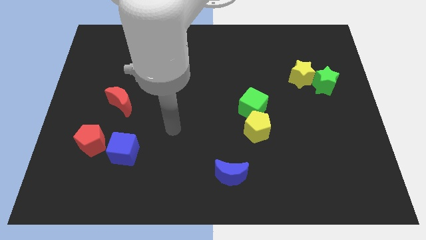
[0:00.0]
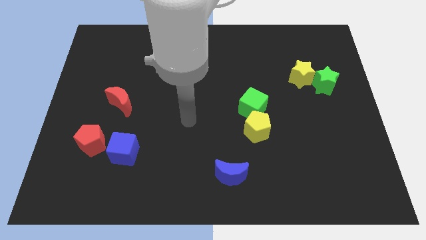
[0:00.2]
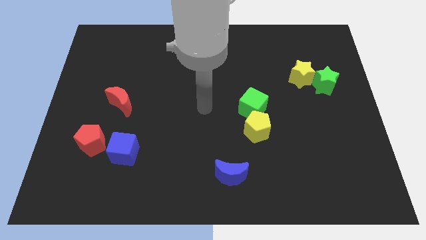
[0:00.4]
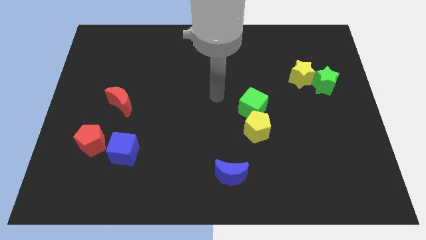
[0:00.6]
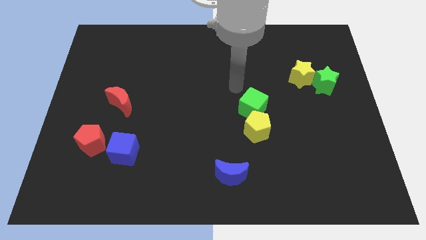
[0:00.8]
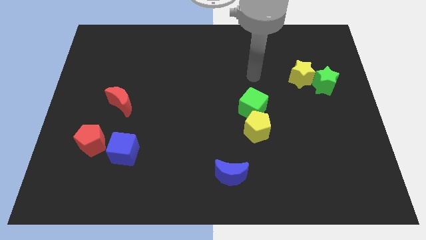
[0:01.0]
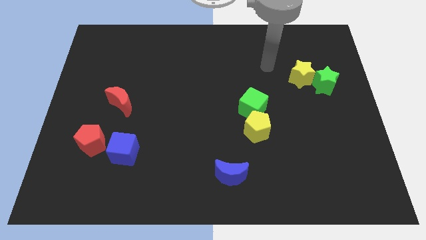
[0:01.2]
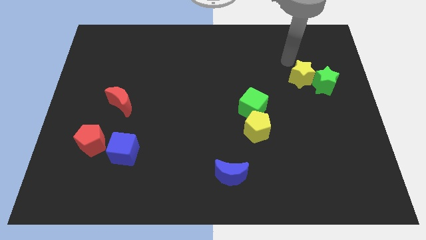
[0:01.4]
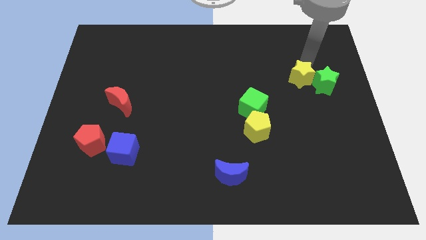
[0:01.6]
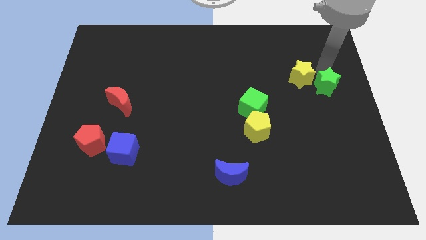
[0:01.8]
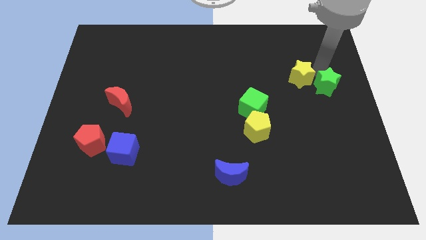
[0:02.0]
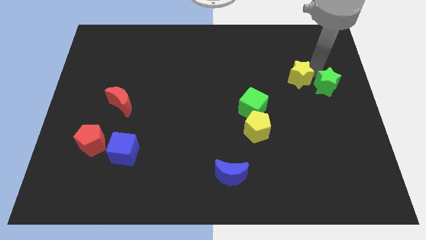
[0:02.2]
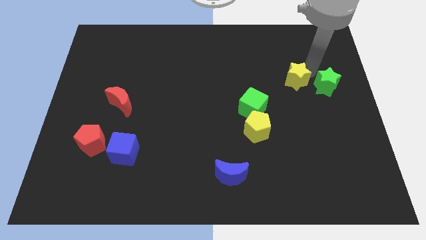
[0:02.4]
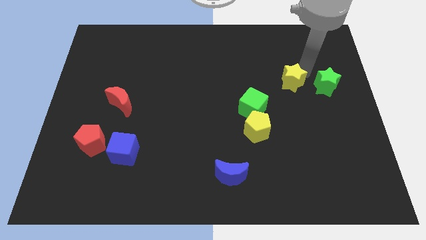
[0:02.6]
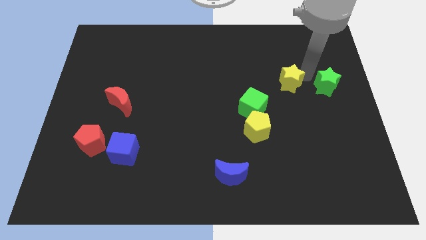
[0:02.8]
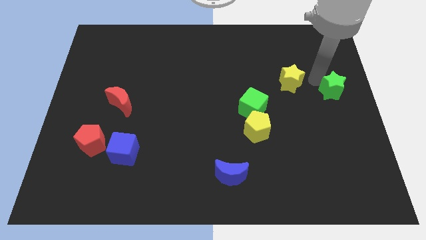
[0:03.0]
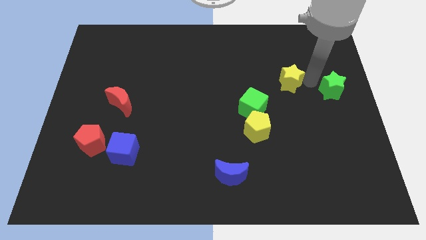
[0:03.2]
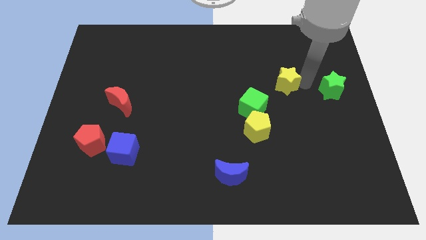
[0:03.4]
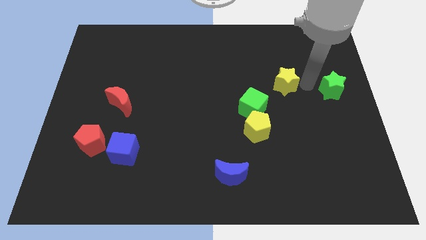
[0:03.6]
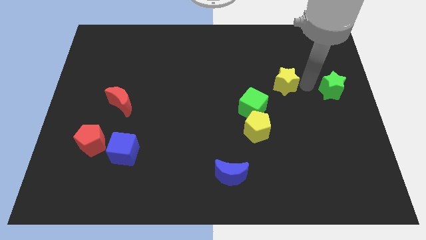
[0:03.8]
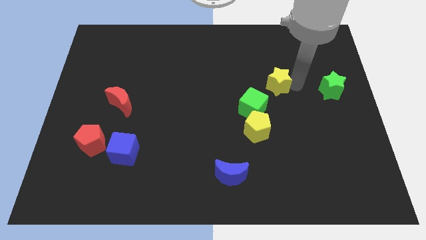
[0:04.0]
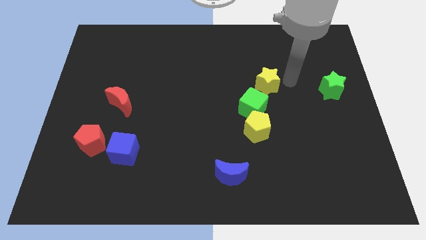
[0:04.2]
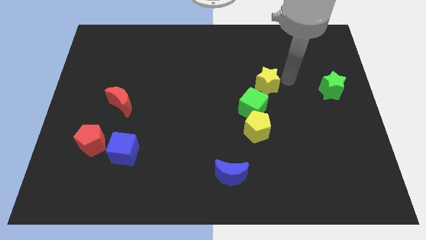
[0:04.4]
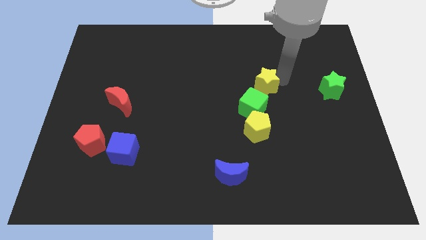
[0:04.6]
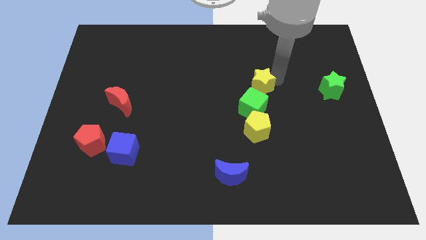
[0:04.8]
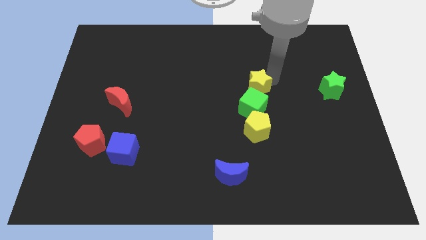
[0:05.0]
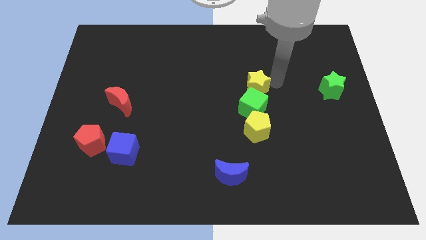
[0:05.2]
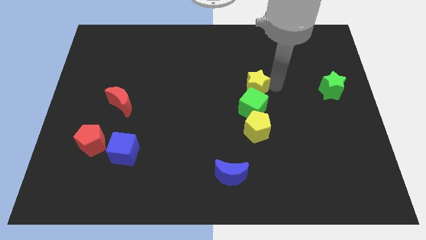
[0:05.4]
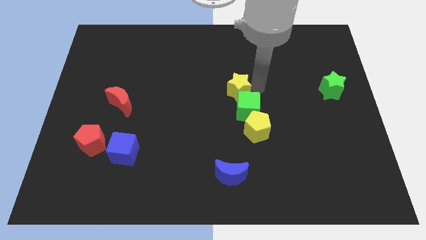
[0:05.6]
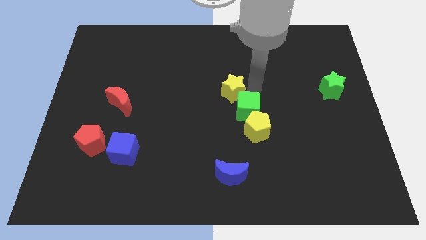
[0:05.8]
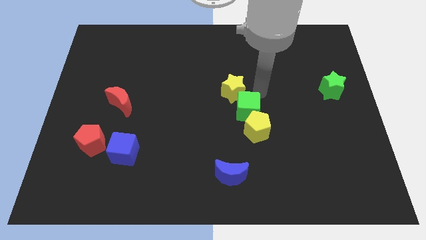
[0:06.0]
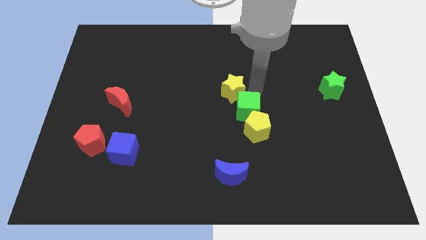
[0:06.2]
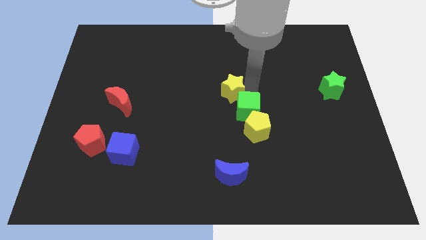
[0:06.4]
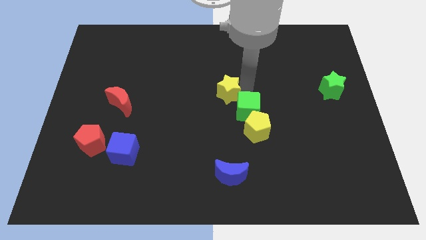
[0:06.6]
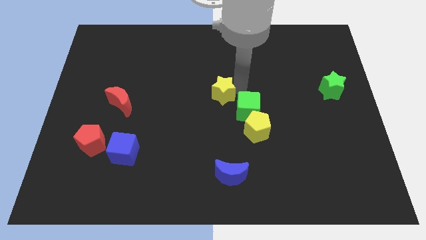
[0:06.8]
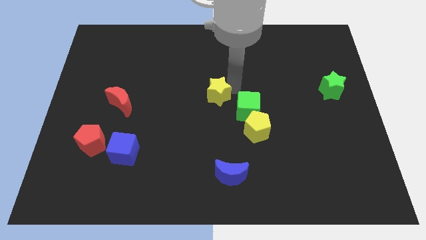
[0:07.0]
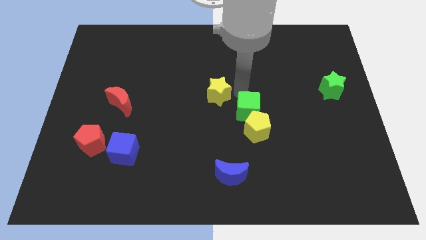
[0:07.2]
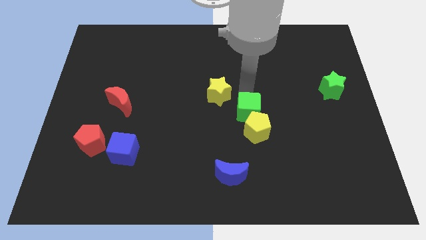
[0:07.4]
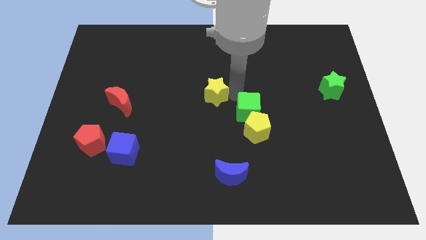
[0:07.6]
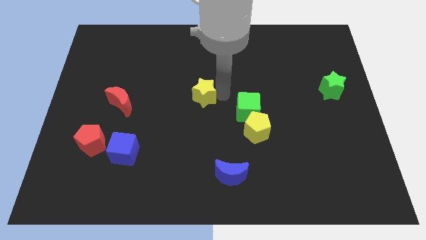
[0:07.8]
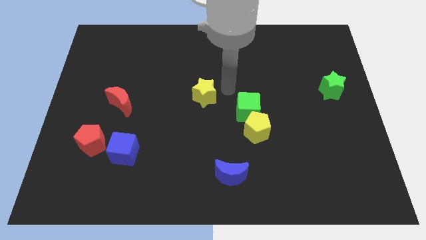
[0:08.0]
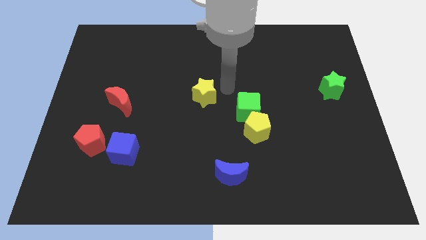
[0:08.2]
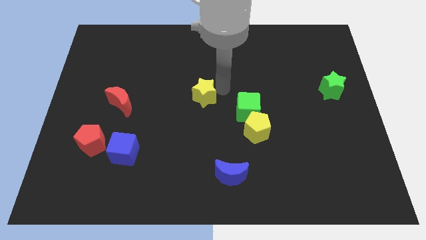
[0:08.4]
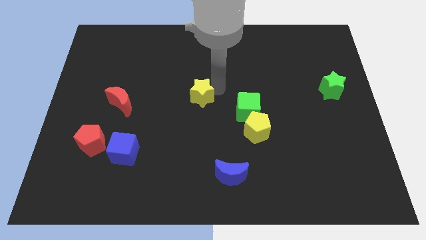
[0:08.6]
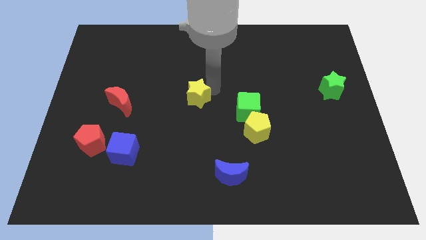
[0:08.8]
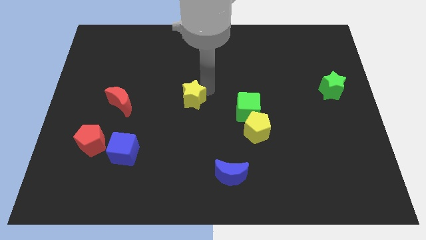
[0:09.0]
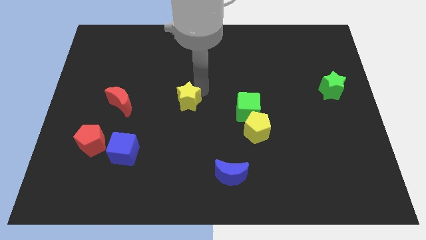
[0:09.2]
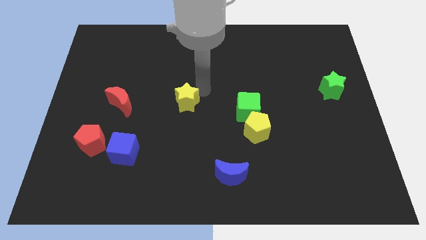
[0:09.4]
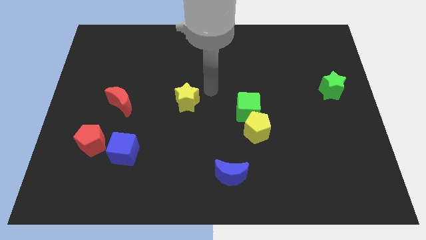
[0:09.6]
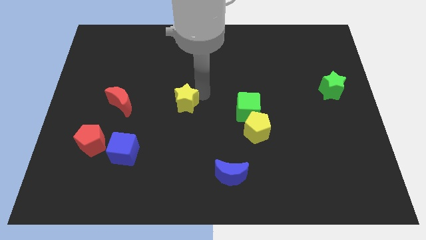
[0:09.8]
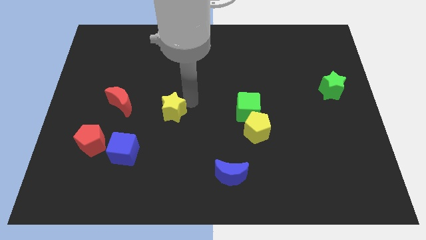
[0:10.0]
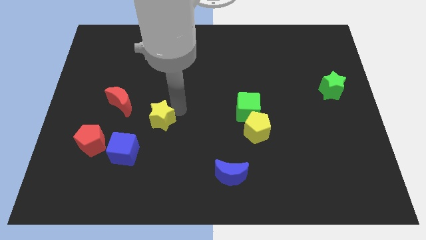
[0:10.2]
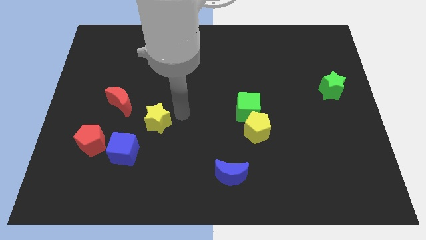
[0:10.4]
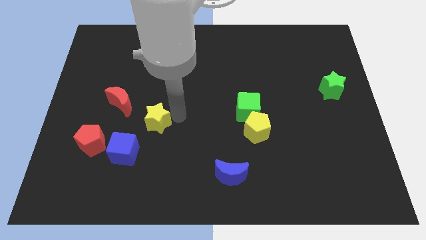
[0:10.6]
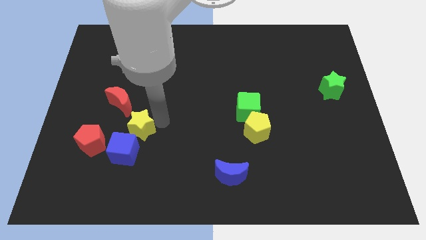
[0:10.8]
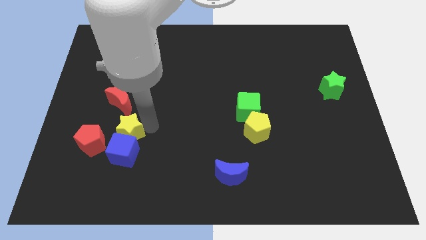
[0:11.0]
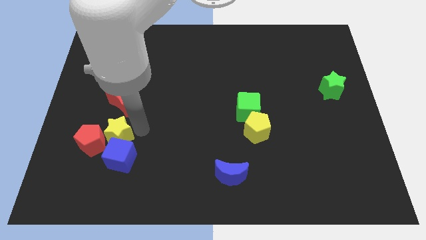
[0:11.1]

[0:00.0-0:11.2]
put the yellow star close to the red pentagon

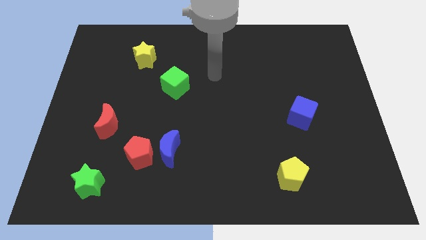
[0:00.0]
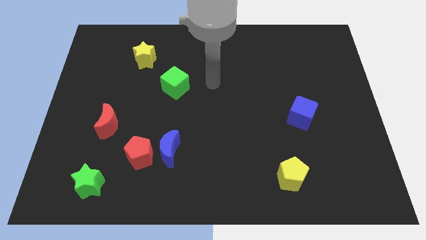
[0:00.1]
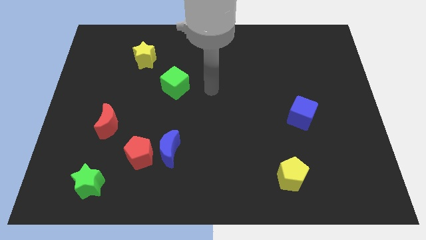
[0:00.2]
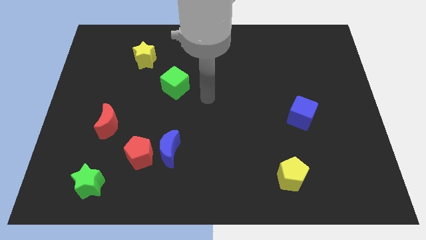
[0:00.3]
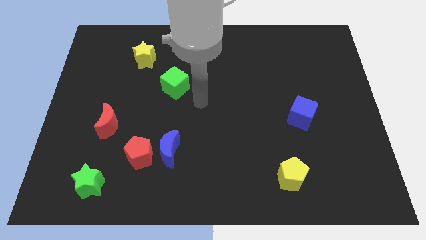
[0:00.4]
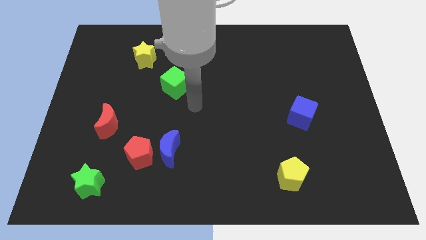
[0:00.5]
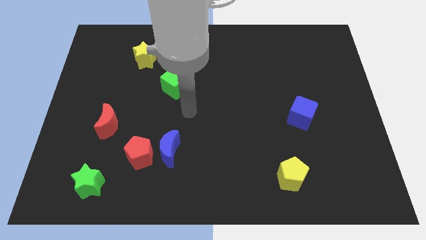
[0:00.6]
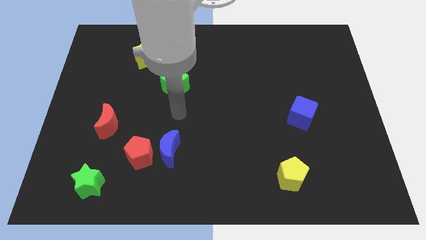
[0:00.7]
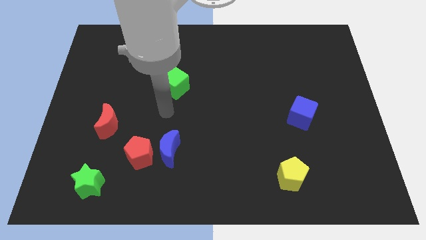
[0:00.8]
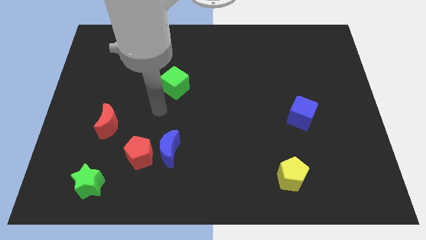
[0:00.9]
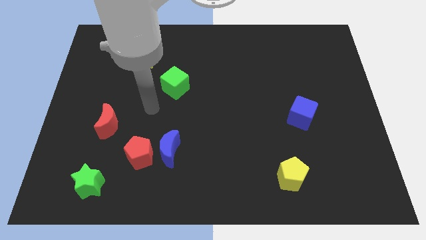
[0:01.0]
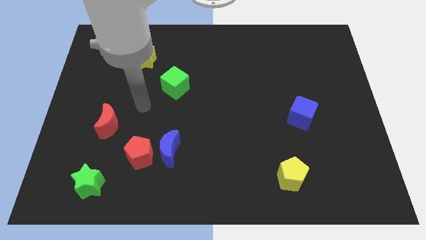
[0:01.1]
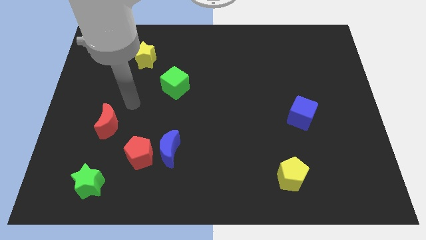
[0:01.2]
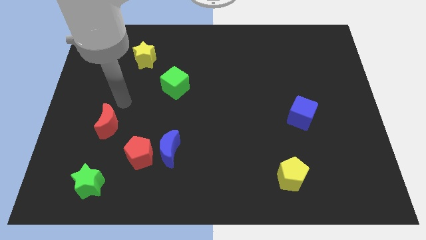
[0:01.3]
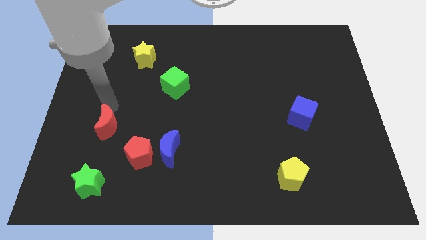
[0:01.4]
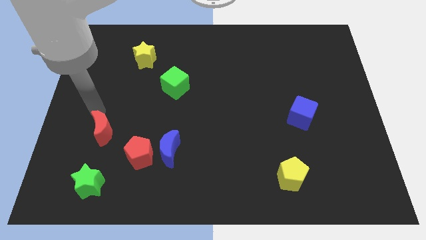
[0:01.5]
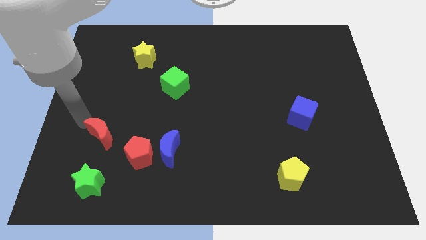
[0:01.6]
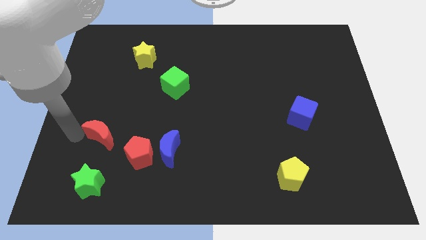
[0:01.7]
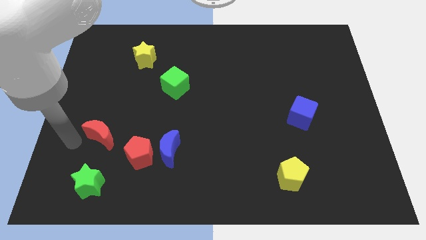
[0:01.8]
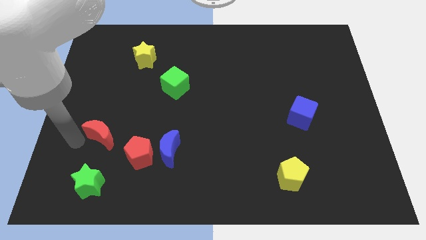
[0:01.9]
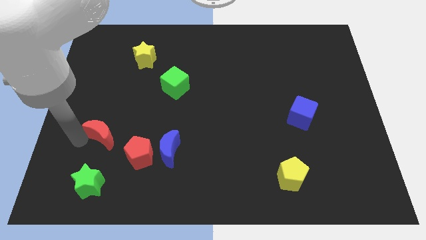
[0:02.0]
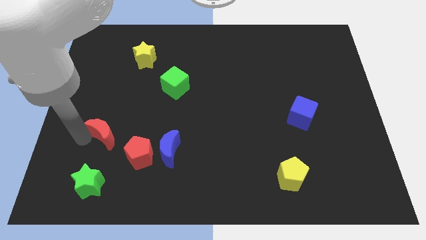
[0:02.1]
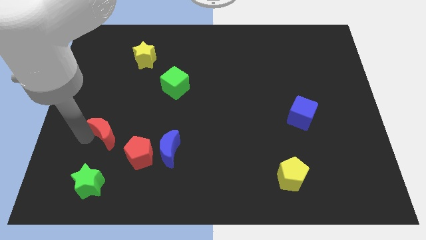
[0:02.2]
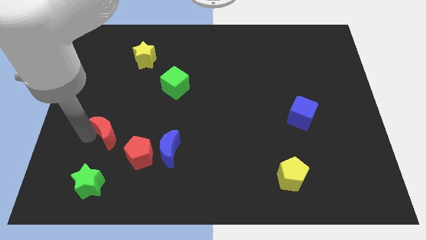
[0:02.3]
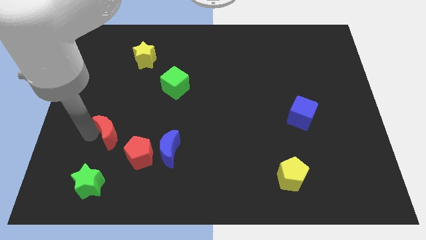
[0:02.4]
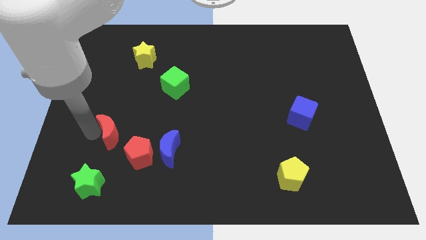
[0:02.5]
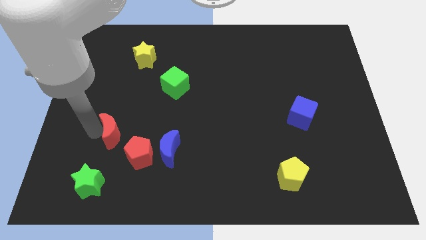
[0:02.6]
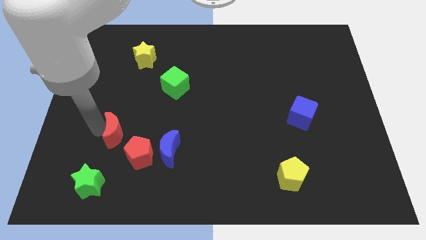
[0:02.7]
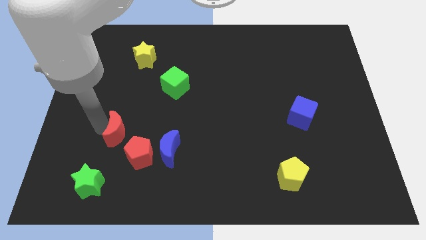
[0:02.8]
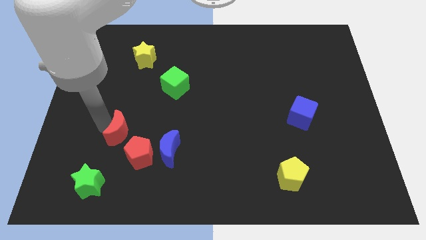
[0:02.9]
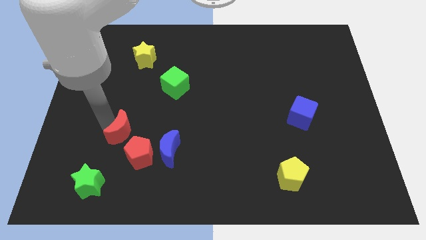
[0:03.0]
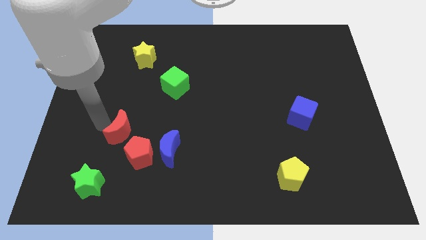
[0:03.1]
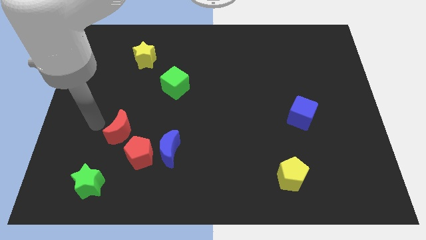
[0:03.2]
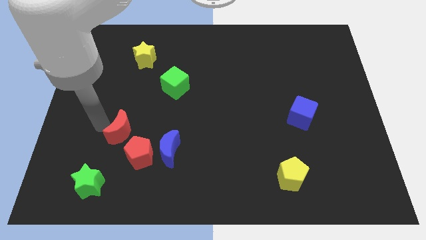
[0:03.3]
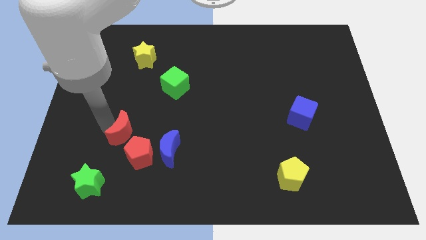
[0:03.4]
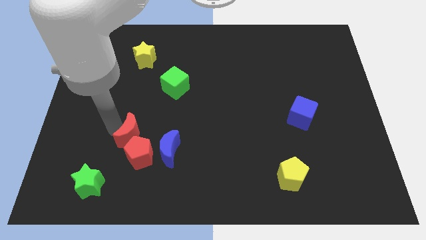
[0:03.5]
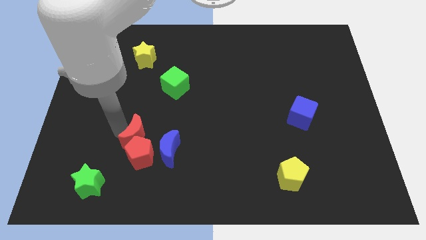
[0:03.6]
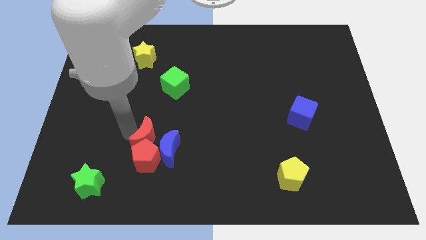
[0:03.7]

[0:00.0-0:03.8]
slide the red moon next to the blue moon
